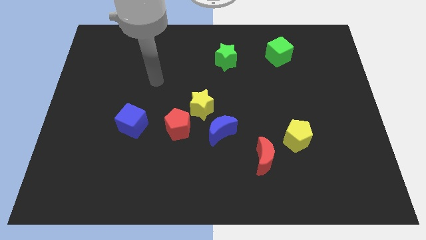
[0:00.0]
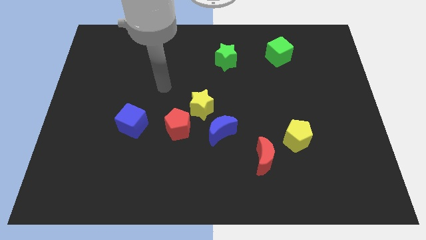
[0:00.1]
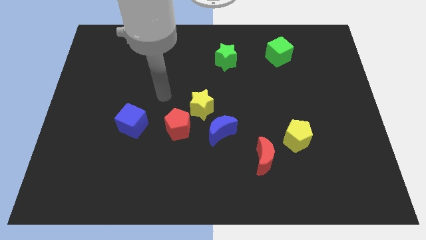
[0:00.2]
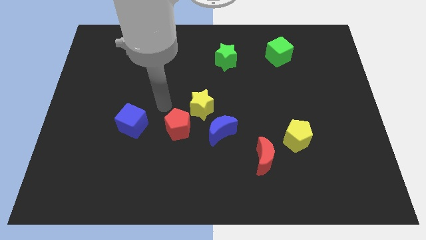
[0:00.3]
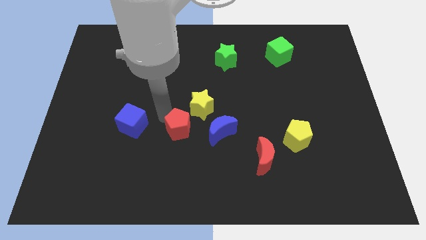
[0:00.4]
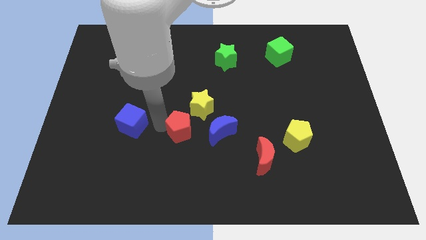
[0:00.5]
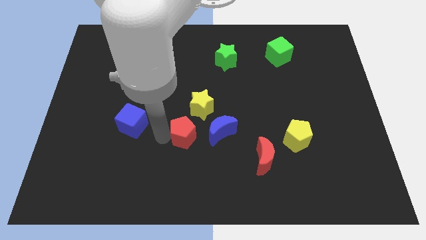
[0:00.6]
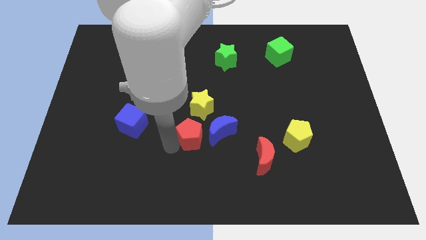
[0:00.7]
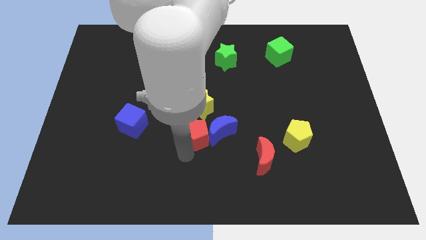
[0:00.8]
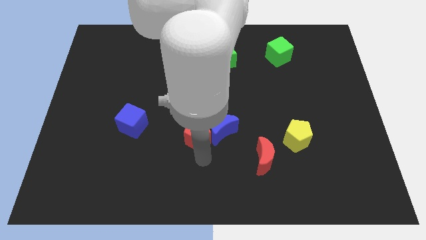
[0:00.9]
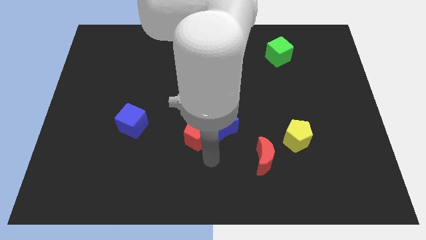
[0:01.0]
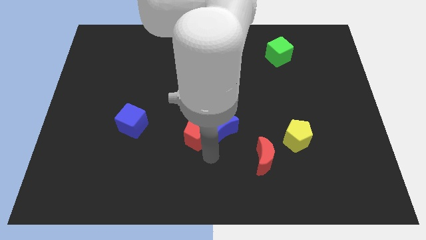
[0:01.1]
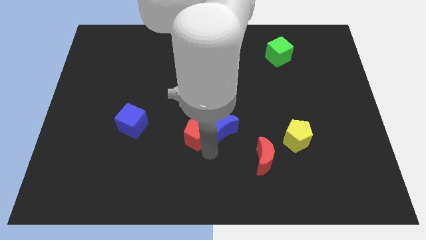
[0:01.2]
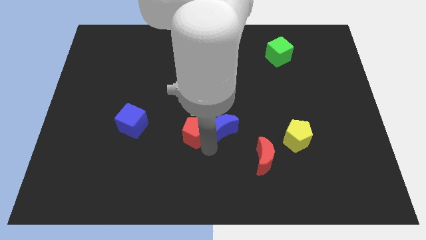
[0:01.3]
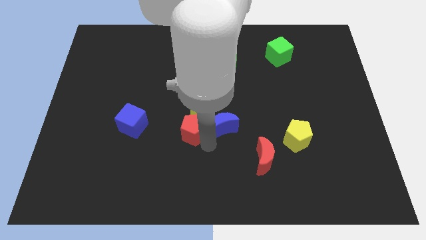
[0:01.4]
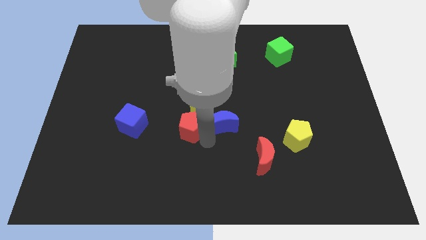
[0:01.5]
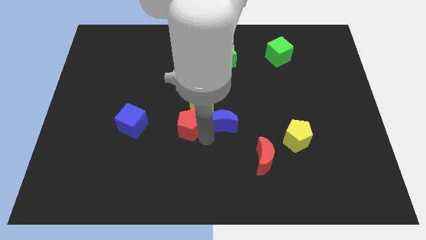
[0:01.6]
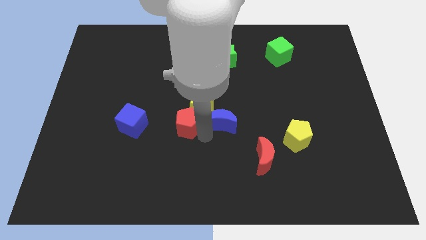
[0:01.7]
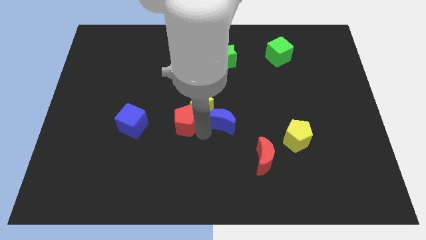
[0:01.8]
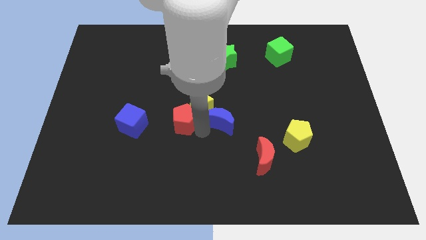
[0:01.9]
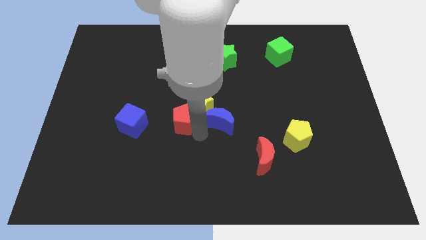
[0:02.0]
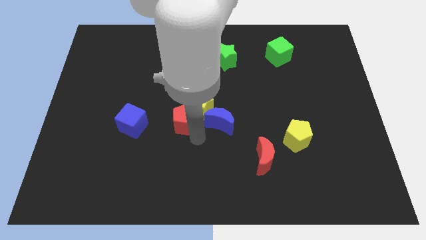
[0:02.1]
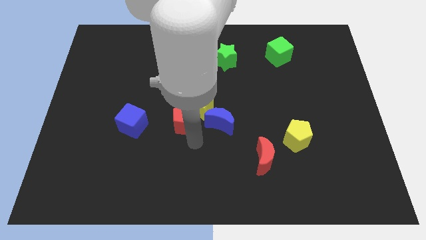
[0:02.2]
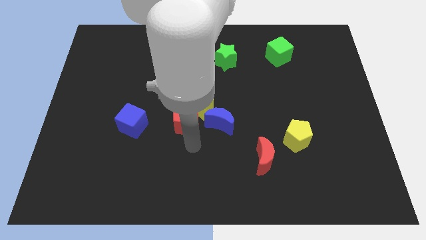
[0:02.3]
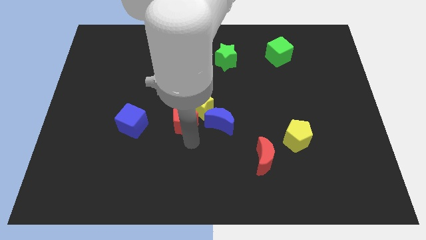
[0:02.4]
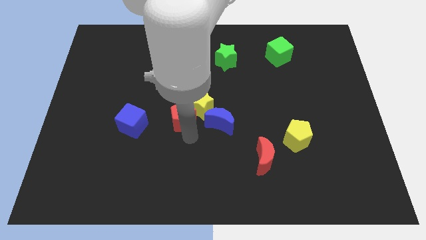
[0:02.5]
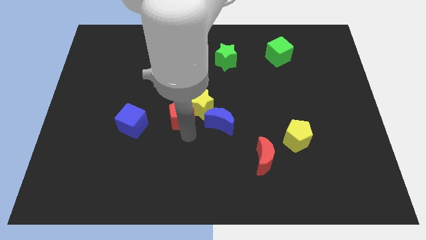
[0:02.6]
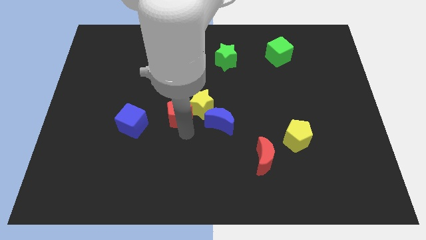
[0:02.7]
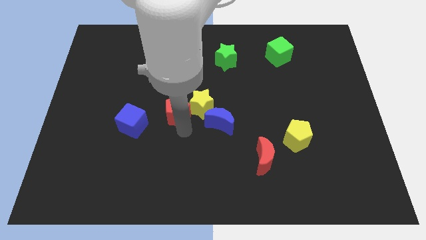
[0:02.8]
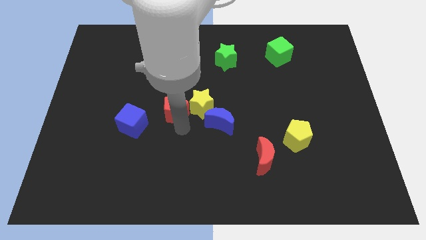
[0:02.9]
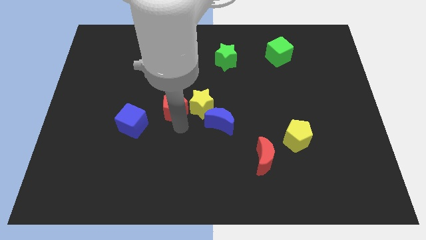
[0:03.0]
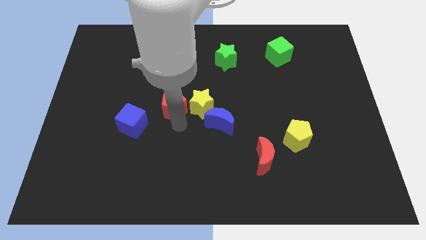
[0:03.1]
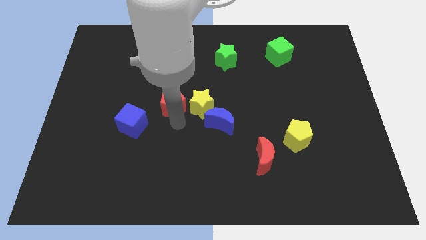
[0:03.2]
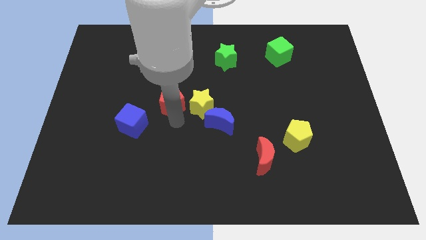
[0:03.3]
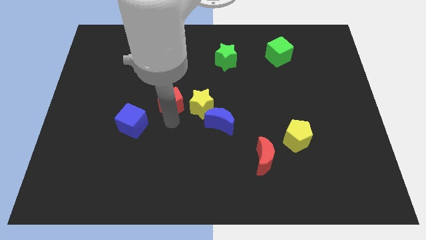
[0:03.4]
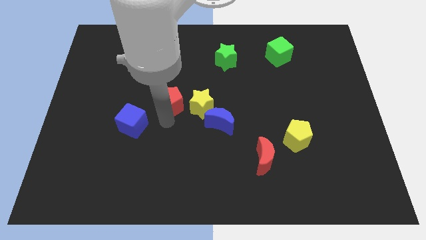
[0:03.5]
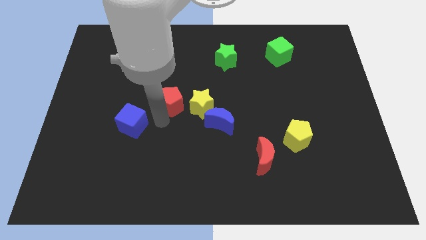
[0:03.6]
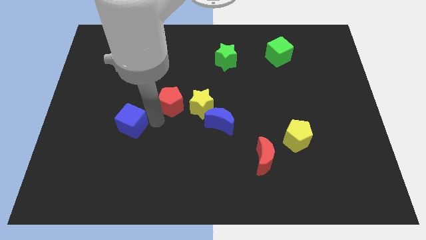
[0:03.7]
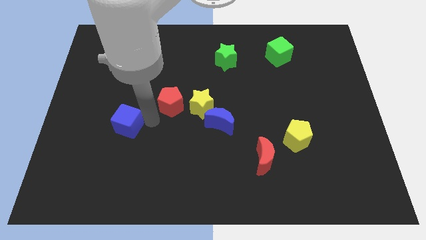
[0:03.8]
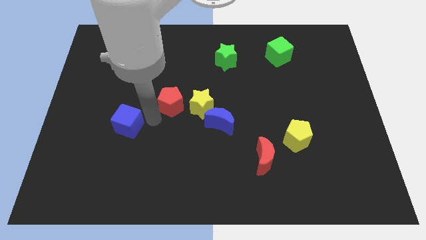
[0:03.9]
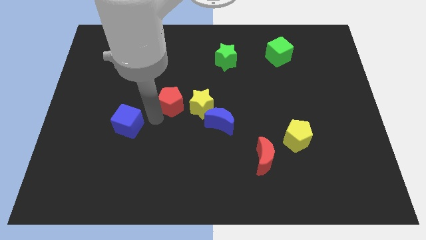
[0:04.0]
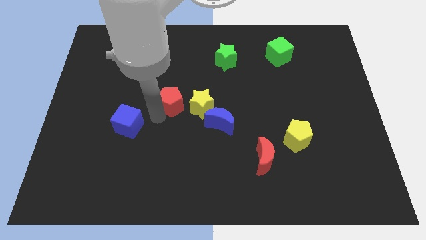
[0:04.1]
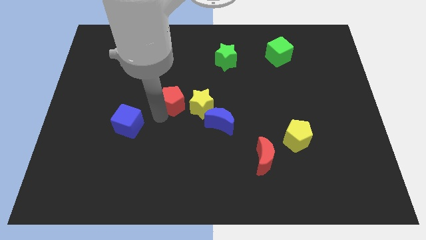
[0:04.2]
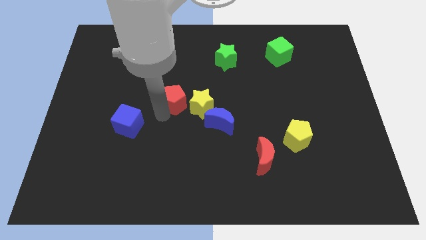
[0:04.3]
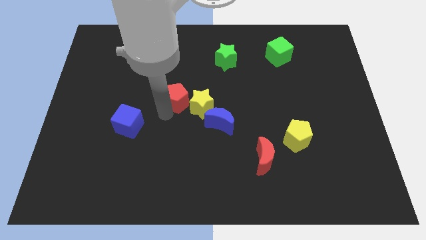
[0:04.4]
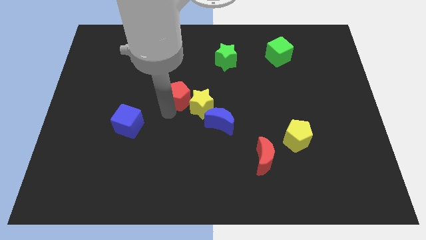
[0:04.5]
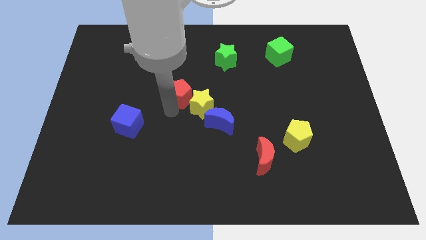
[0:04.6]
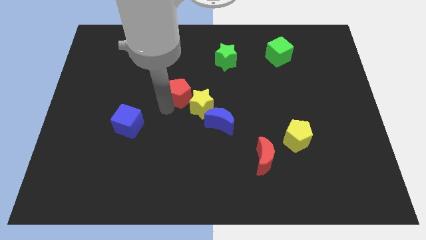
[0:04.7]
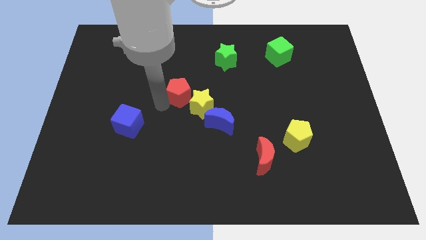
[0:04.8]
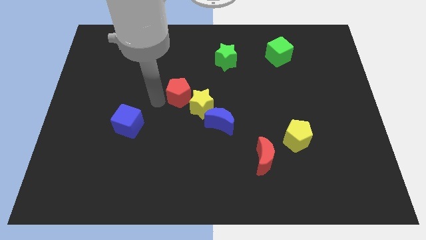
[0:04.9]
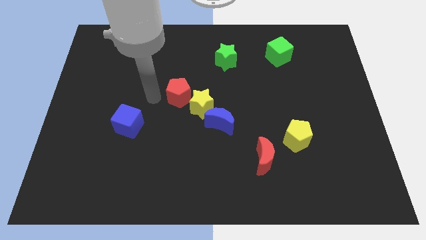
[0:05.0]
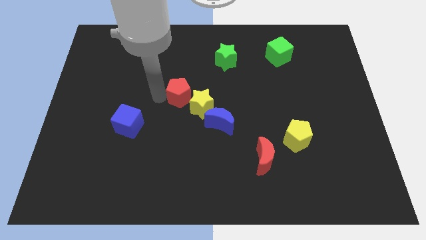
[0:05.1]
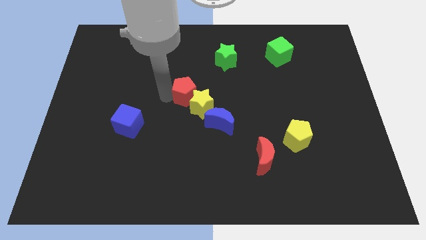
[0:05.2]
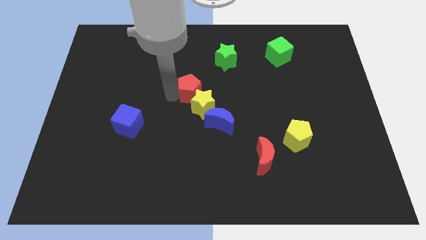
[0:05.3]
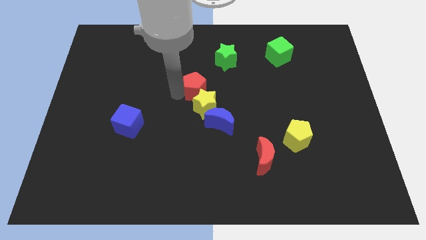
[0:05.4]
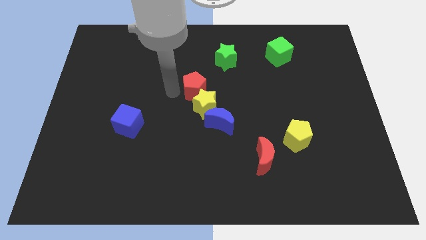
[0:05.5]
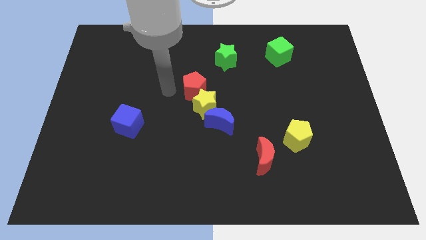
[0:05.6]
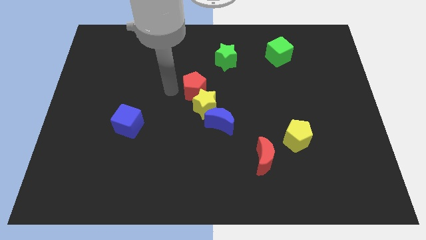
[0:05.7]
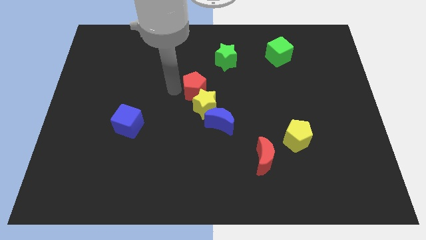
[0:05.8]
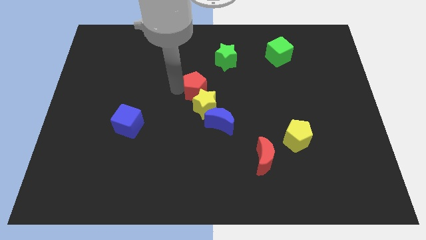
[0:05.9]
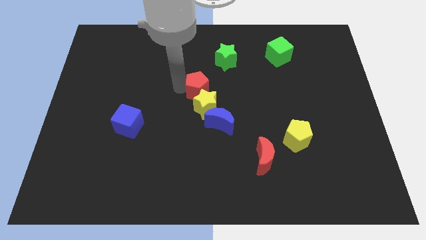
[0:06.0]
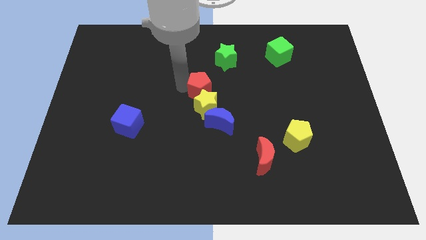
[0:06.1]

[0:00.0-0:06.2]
slide the red pentagon to the top side of the blue moon

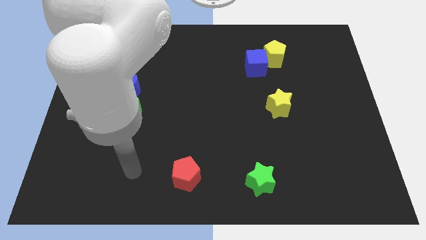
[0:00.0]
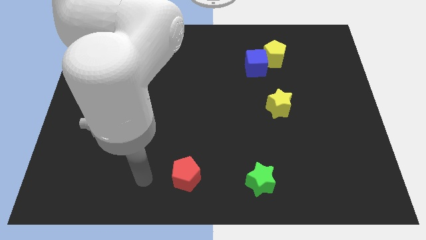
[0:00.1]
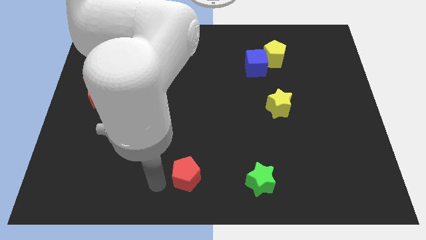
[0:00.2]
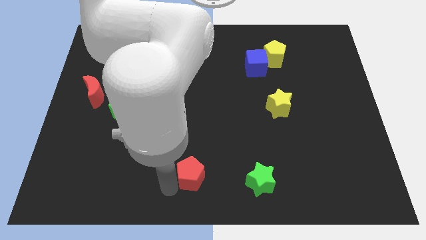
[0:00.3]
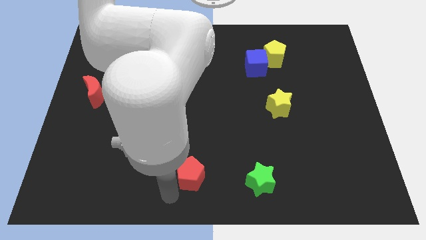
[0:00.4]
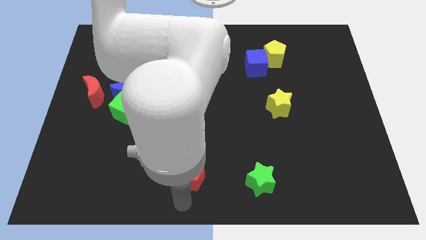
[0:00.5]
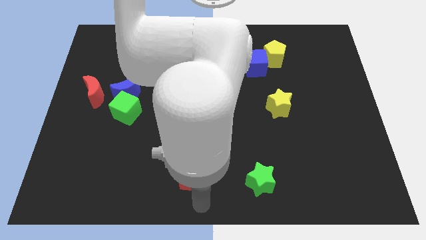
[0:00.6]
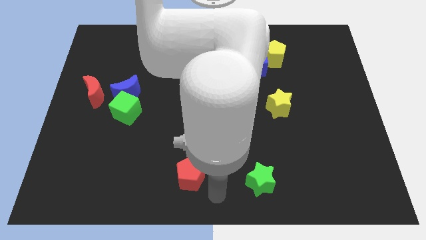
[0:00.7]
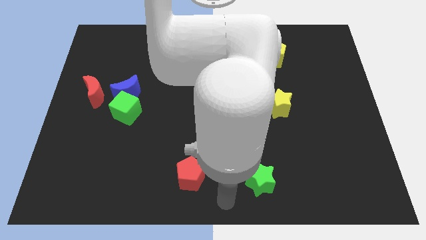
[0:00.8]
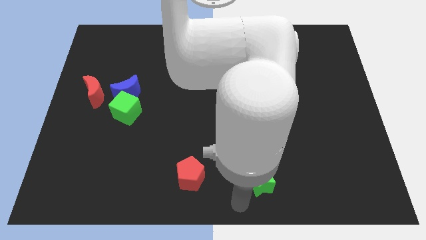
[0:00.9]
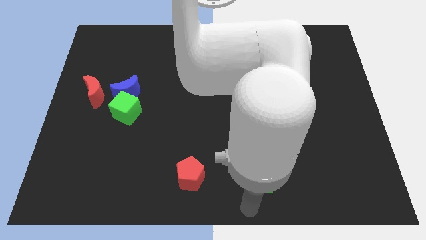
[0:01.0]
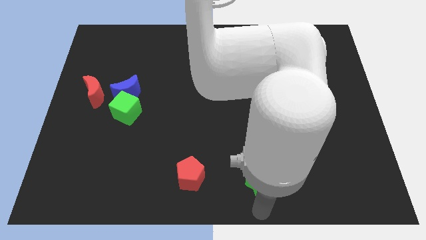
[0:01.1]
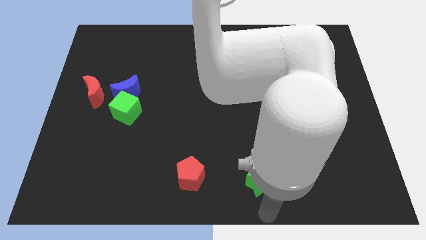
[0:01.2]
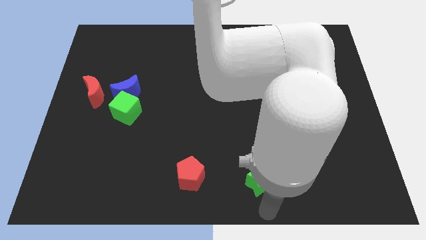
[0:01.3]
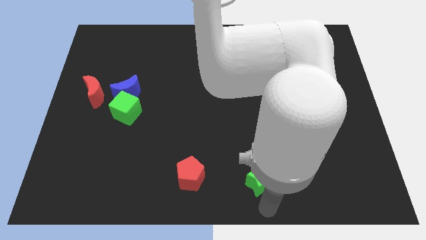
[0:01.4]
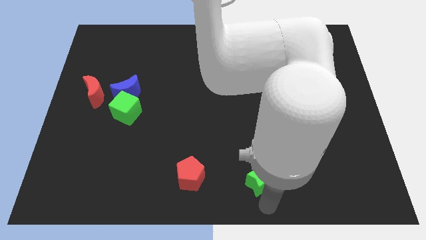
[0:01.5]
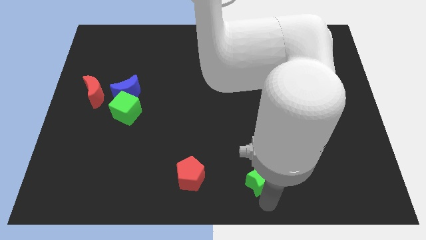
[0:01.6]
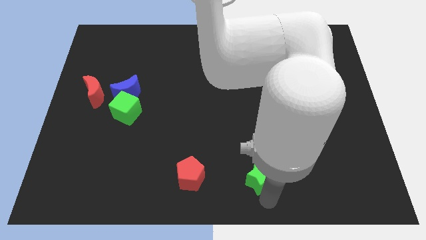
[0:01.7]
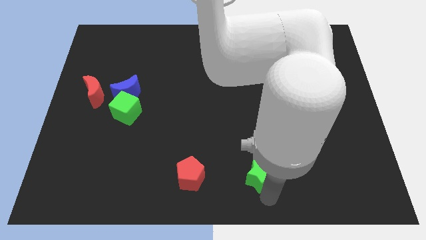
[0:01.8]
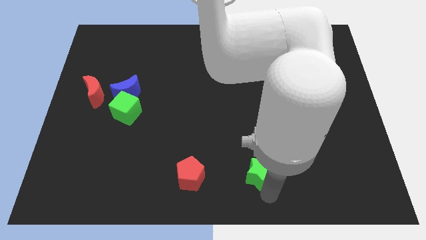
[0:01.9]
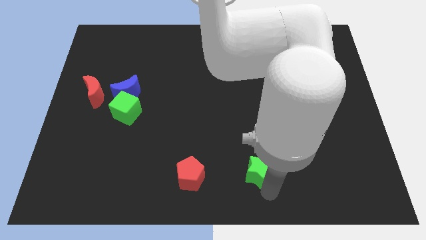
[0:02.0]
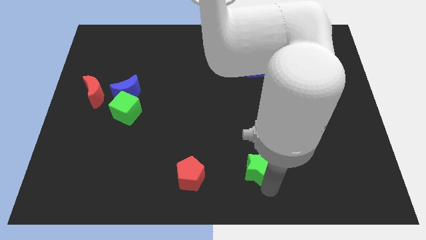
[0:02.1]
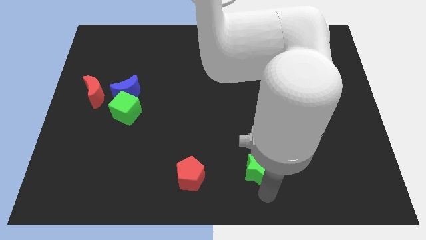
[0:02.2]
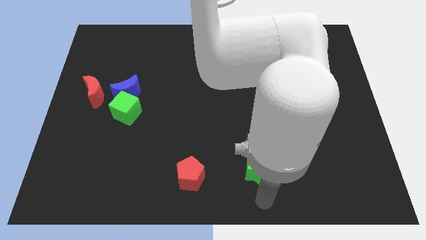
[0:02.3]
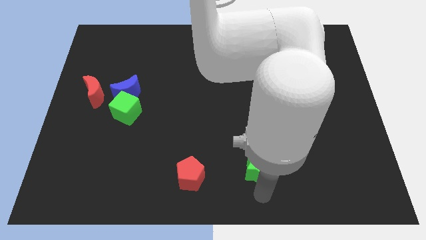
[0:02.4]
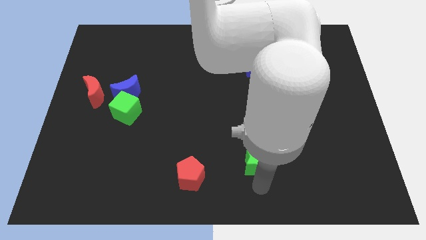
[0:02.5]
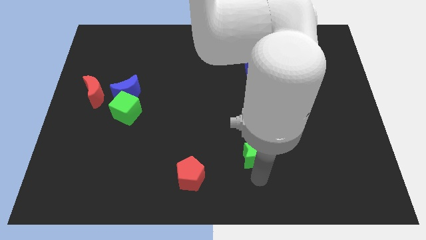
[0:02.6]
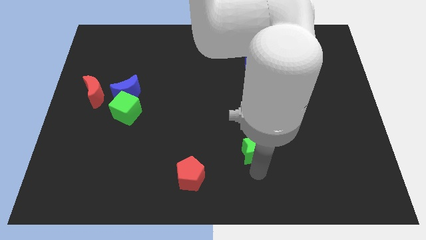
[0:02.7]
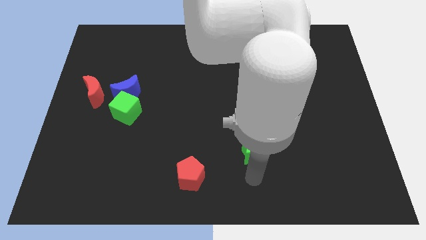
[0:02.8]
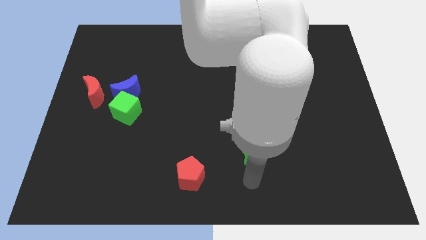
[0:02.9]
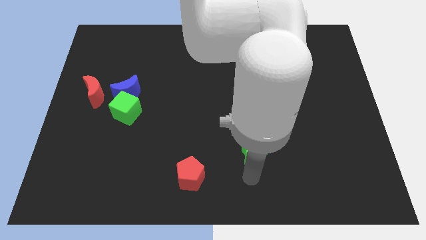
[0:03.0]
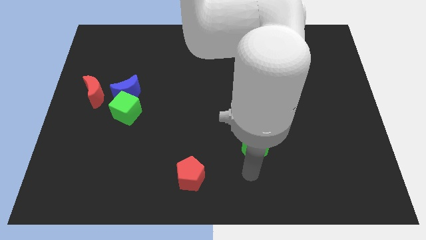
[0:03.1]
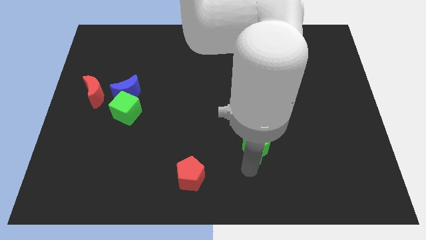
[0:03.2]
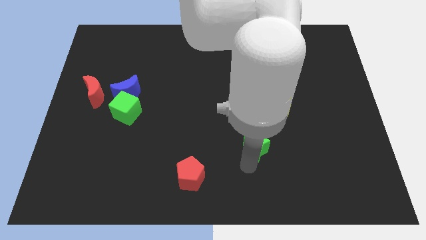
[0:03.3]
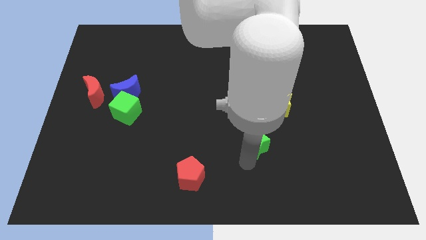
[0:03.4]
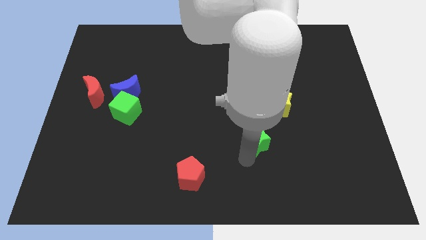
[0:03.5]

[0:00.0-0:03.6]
push the green star diagonally down and to the left of the yellow star
